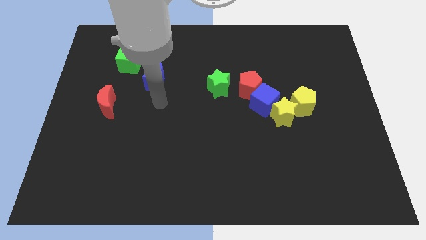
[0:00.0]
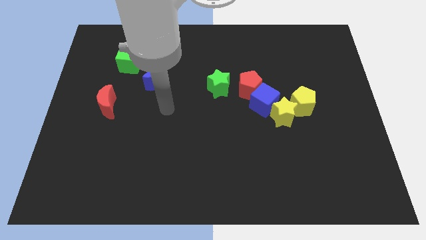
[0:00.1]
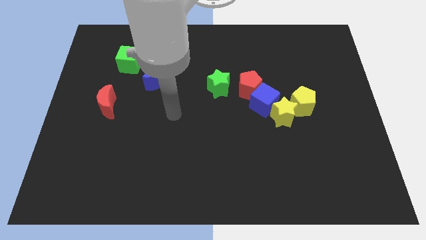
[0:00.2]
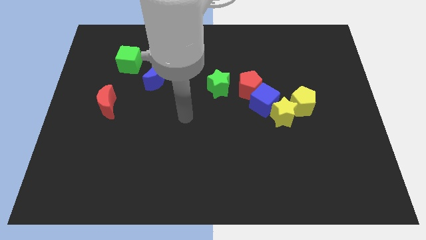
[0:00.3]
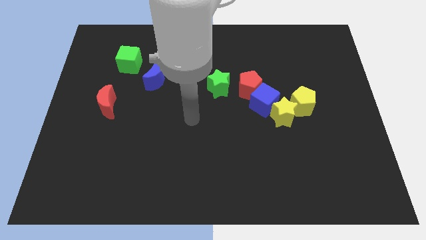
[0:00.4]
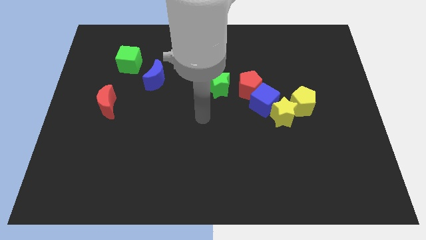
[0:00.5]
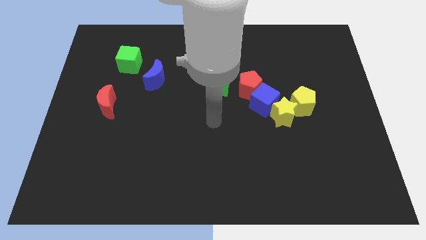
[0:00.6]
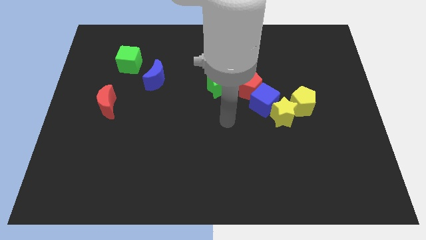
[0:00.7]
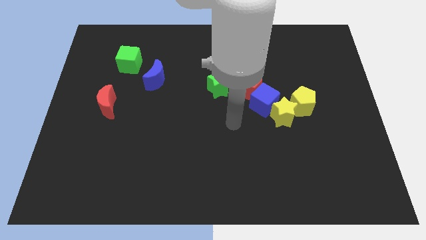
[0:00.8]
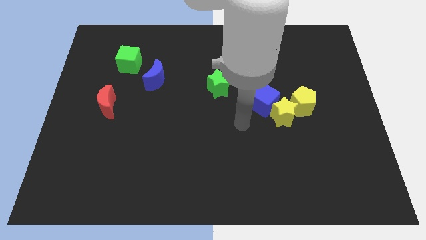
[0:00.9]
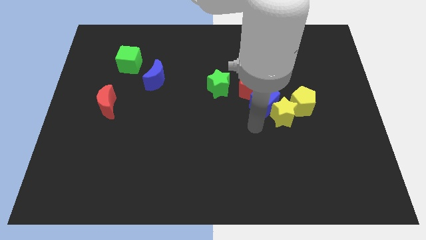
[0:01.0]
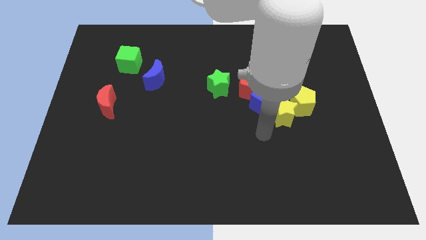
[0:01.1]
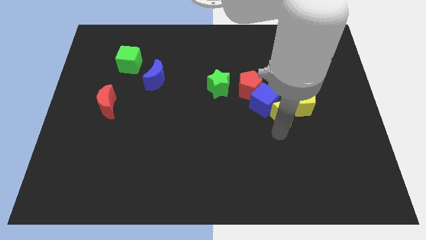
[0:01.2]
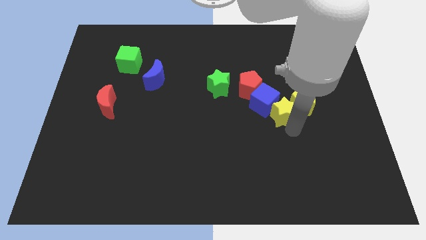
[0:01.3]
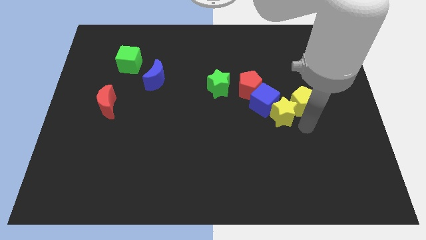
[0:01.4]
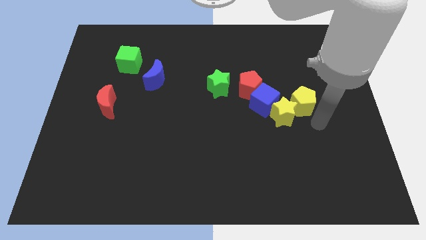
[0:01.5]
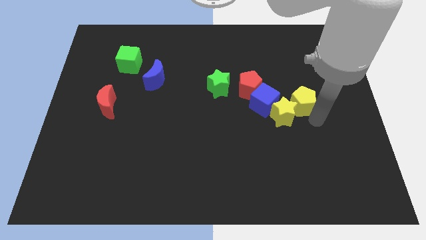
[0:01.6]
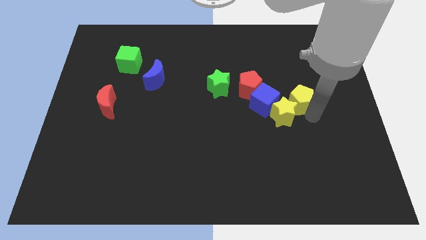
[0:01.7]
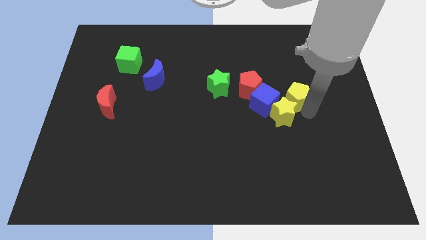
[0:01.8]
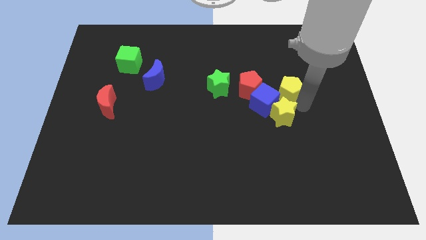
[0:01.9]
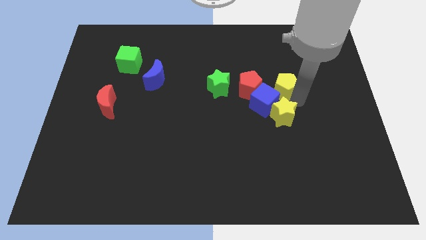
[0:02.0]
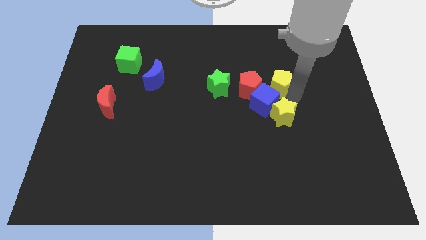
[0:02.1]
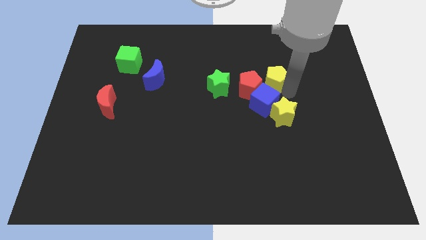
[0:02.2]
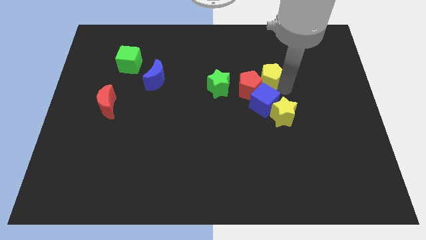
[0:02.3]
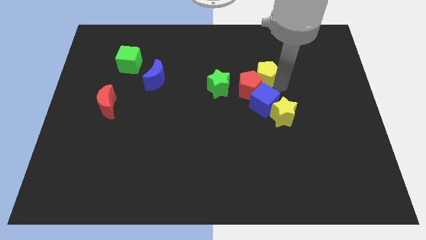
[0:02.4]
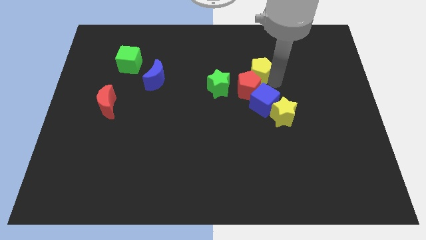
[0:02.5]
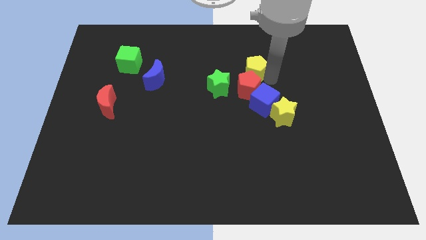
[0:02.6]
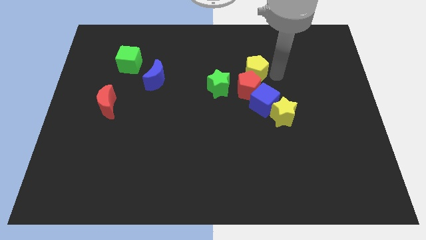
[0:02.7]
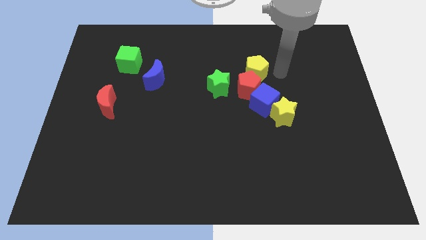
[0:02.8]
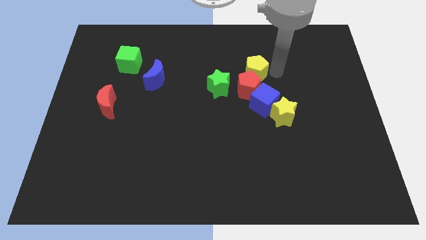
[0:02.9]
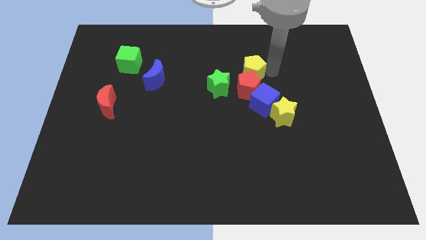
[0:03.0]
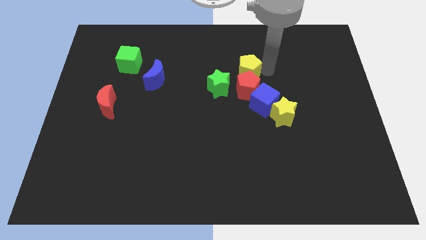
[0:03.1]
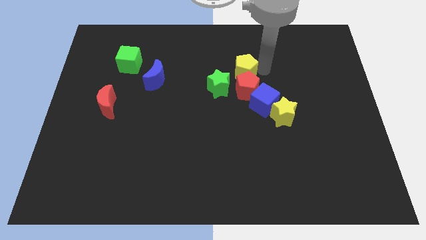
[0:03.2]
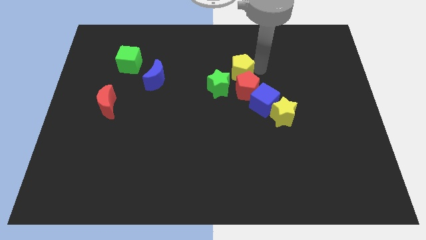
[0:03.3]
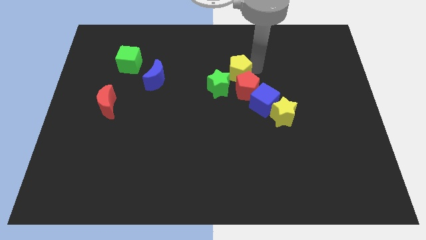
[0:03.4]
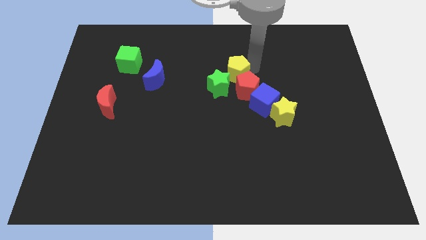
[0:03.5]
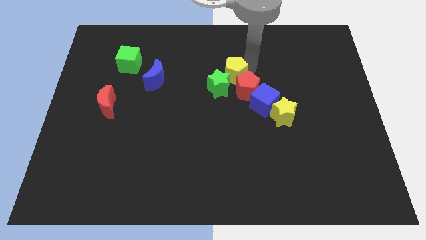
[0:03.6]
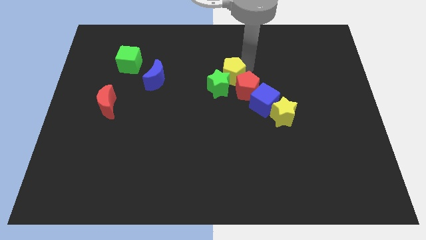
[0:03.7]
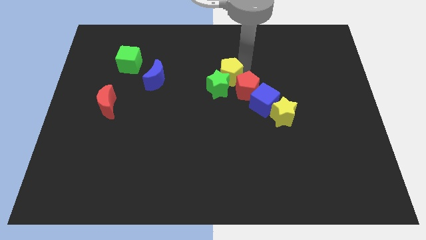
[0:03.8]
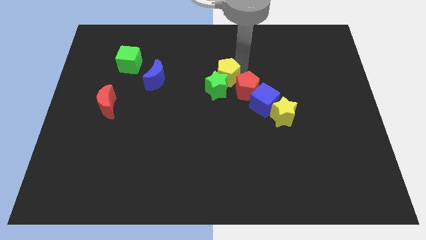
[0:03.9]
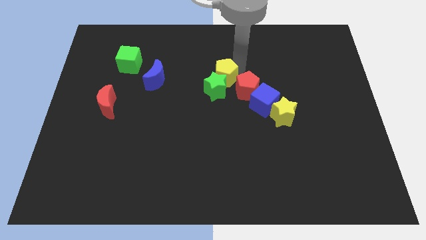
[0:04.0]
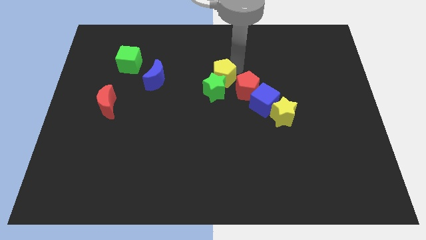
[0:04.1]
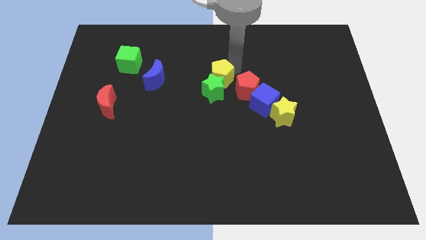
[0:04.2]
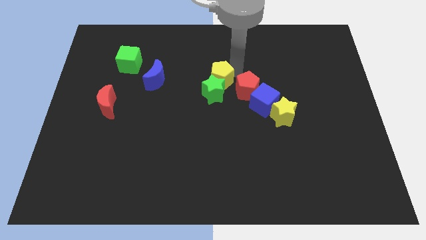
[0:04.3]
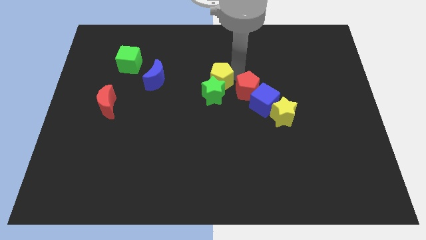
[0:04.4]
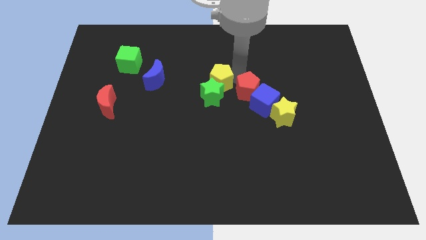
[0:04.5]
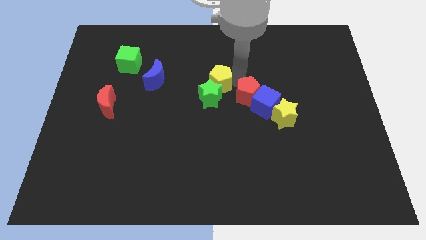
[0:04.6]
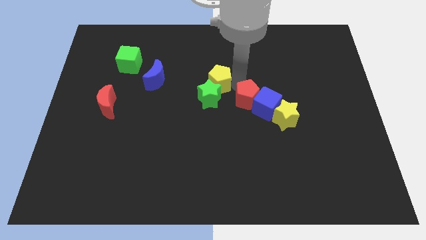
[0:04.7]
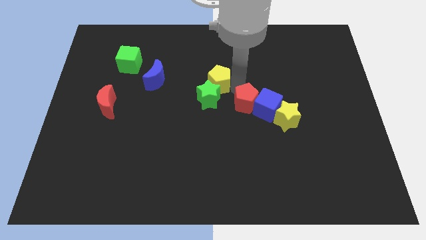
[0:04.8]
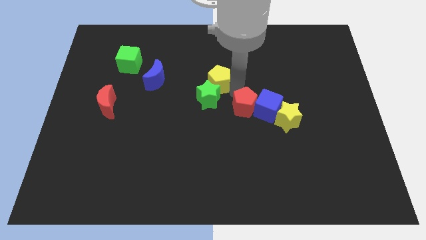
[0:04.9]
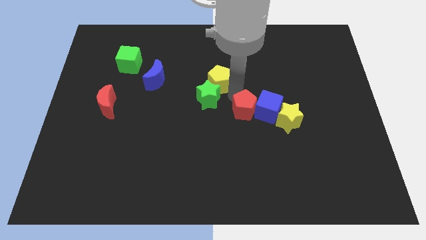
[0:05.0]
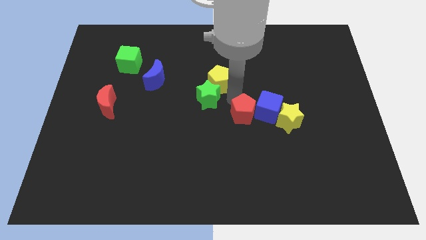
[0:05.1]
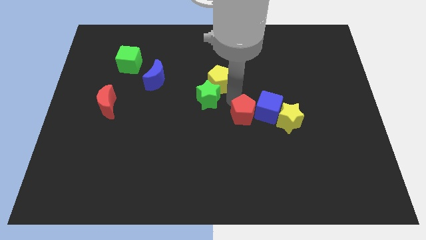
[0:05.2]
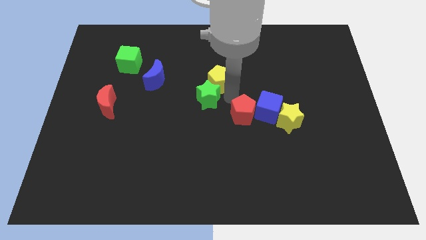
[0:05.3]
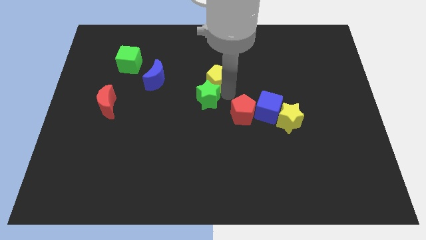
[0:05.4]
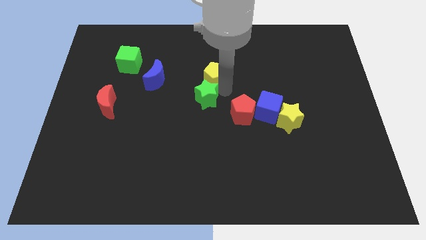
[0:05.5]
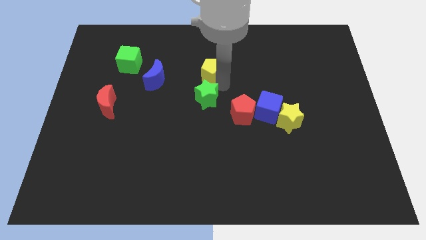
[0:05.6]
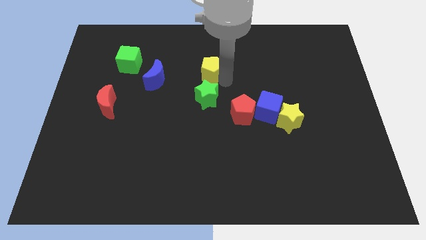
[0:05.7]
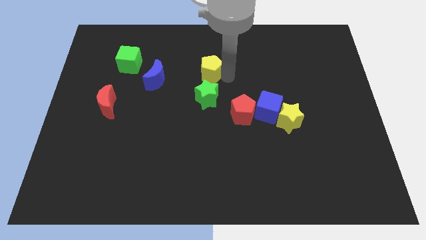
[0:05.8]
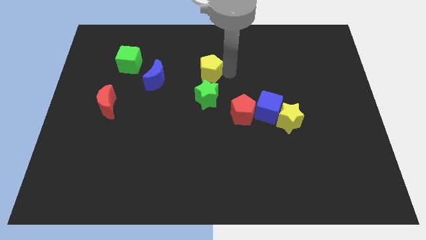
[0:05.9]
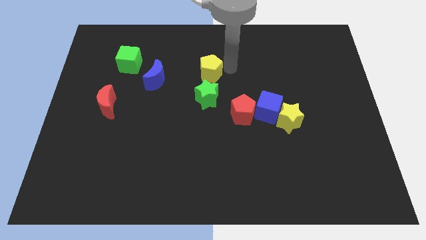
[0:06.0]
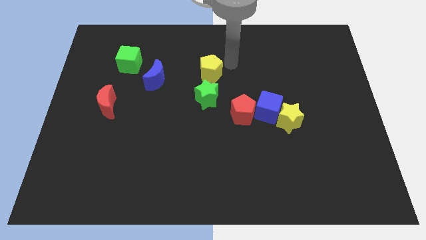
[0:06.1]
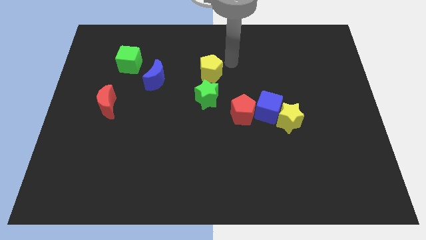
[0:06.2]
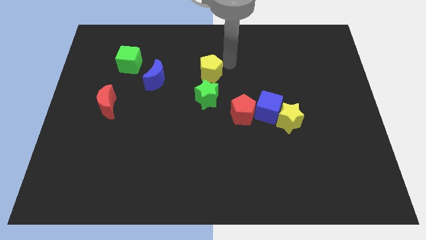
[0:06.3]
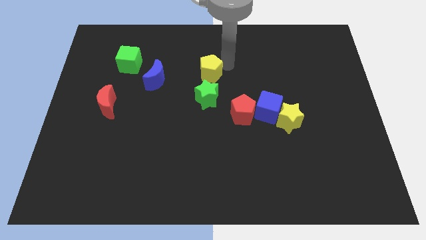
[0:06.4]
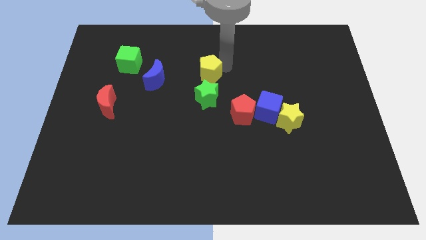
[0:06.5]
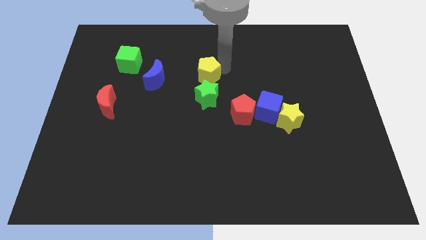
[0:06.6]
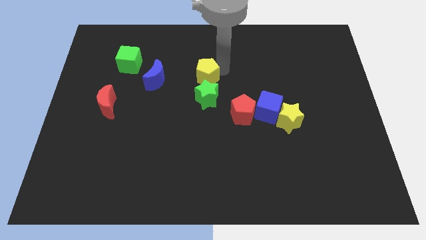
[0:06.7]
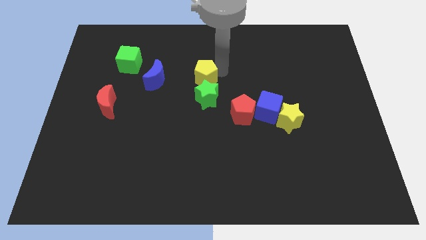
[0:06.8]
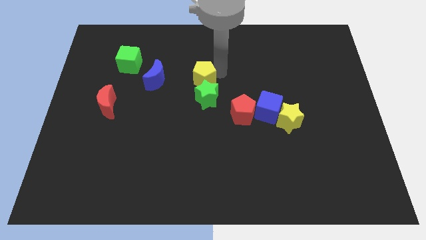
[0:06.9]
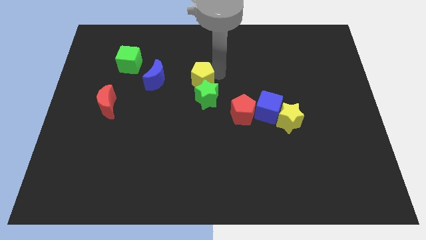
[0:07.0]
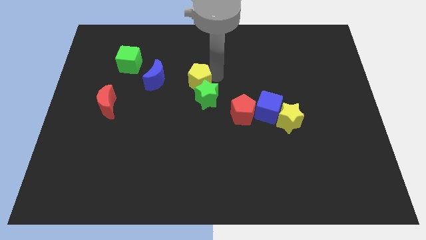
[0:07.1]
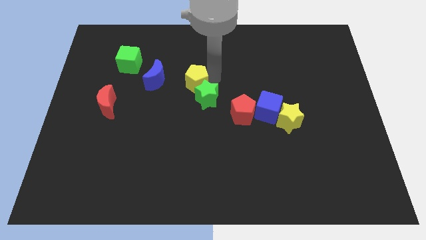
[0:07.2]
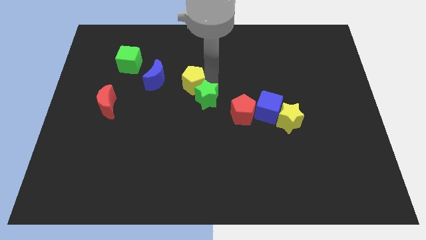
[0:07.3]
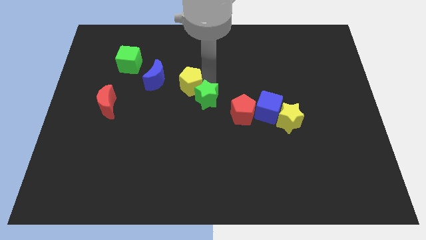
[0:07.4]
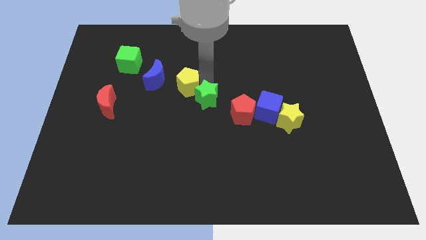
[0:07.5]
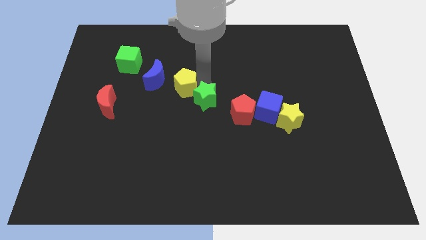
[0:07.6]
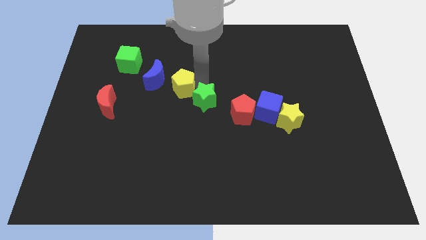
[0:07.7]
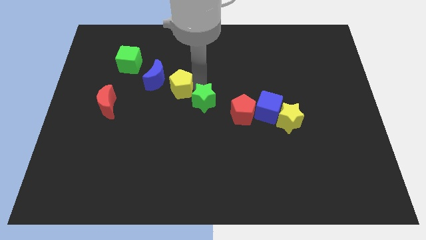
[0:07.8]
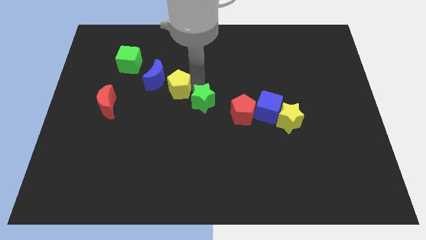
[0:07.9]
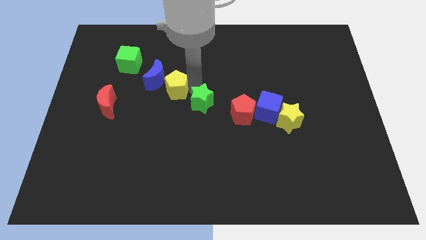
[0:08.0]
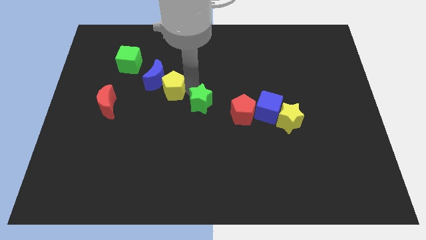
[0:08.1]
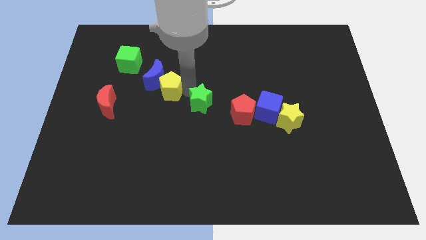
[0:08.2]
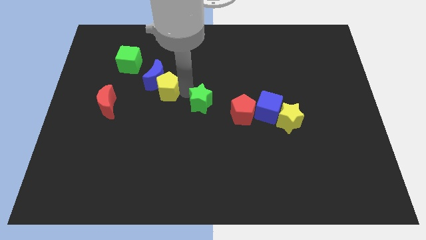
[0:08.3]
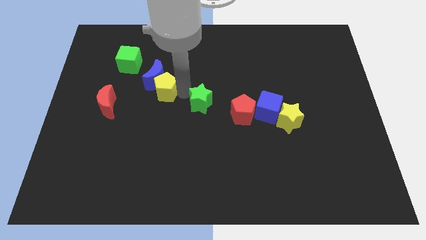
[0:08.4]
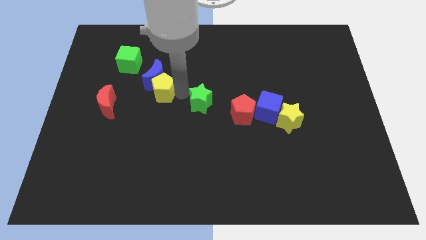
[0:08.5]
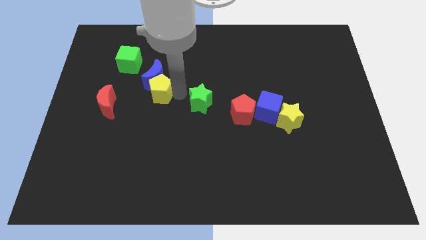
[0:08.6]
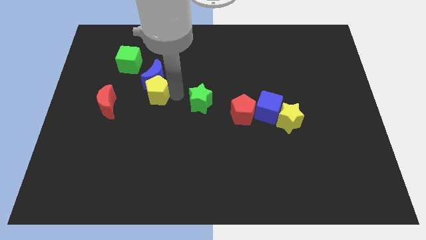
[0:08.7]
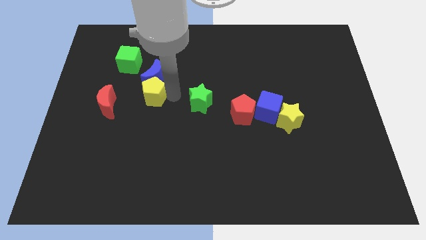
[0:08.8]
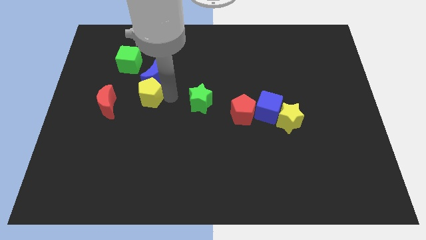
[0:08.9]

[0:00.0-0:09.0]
put the yellow pentagon diagonally up and to the right of the red moon
